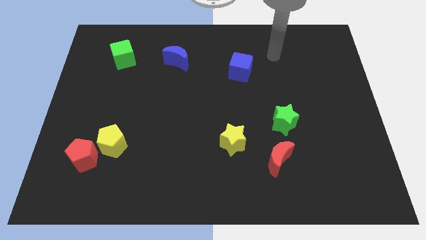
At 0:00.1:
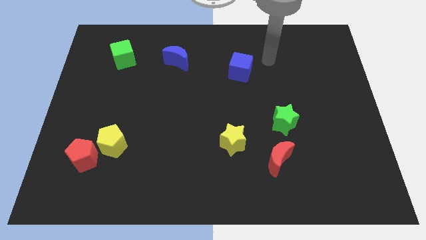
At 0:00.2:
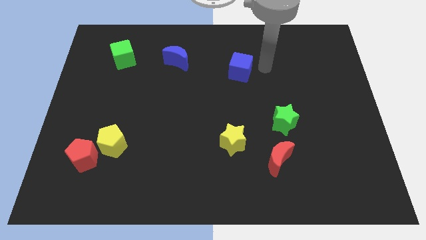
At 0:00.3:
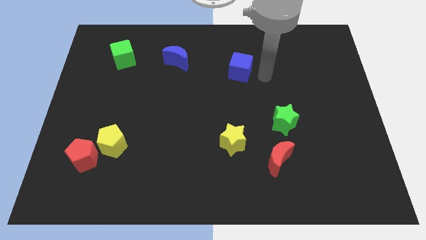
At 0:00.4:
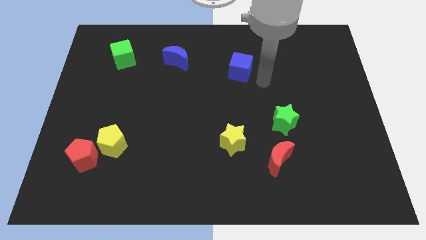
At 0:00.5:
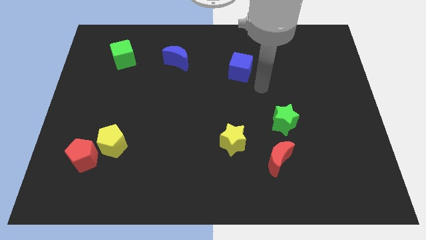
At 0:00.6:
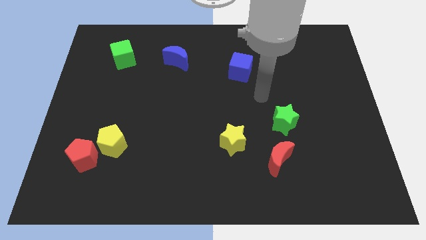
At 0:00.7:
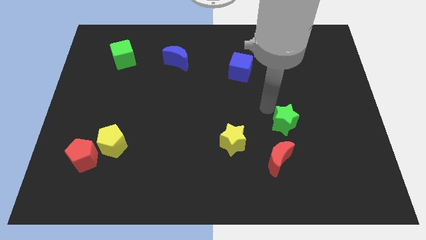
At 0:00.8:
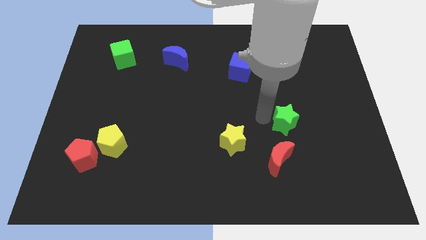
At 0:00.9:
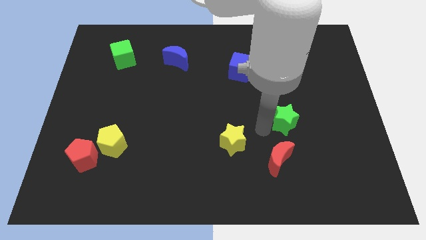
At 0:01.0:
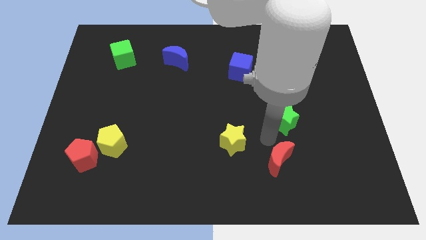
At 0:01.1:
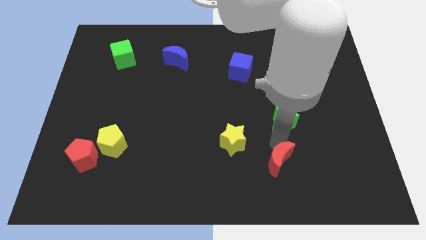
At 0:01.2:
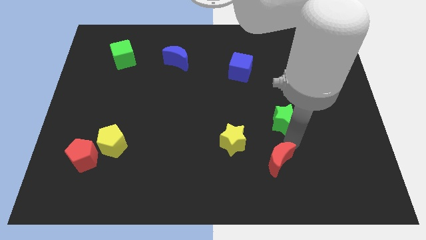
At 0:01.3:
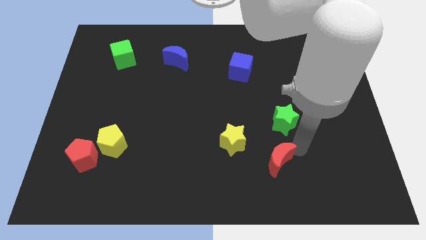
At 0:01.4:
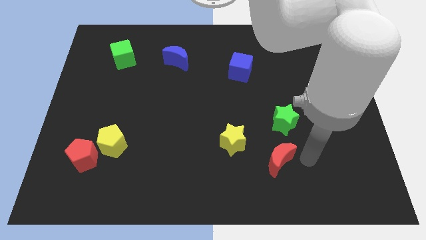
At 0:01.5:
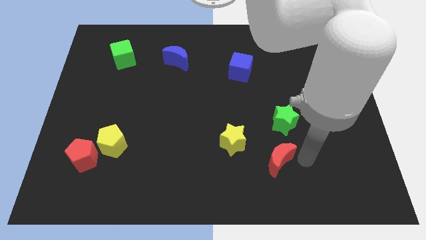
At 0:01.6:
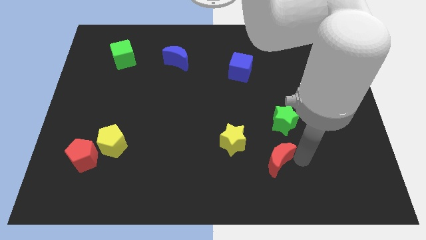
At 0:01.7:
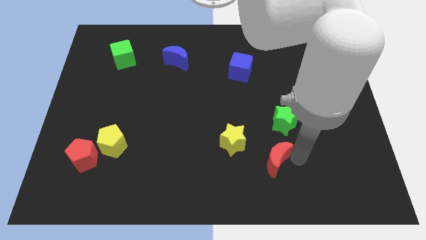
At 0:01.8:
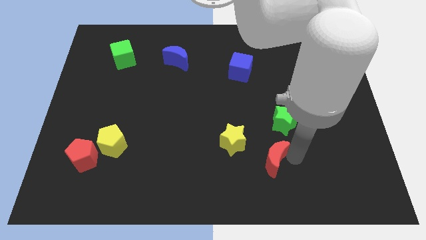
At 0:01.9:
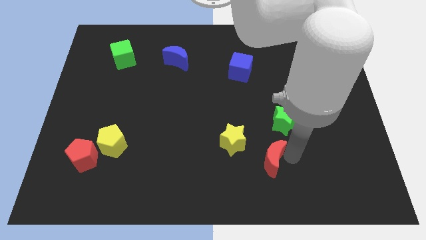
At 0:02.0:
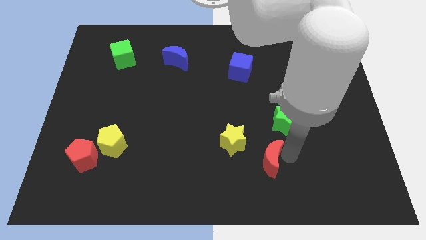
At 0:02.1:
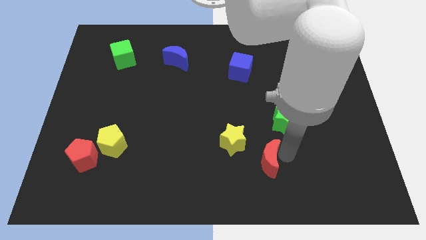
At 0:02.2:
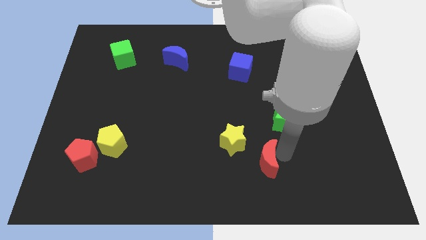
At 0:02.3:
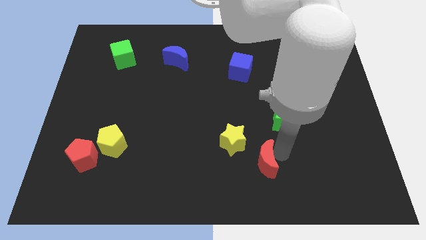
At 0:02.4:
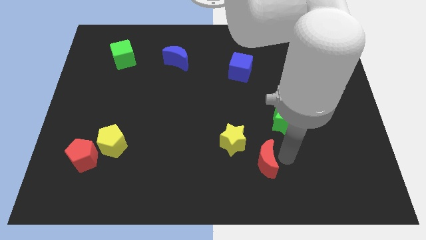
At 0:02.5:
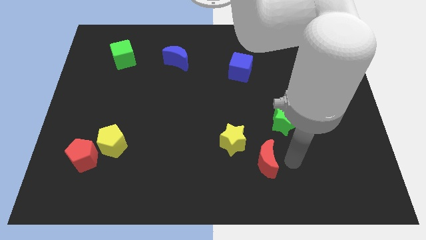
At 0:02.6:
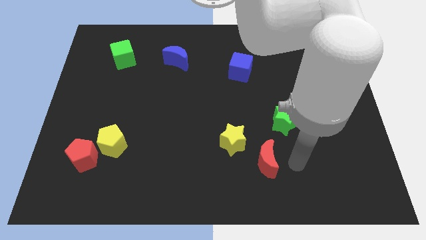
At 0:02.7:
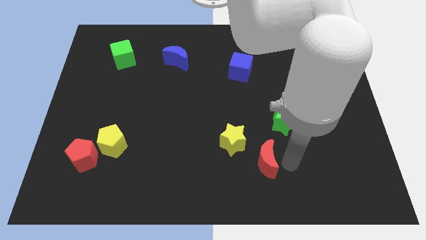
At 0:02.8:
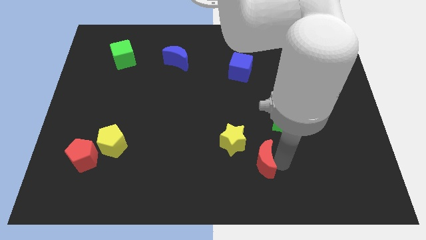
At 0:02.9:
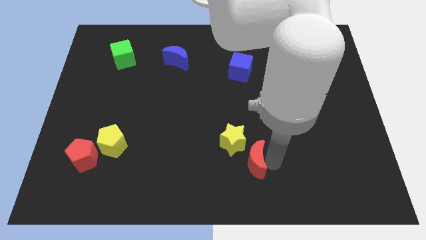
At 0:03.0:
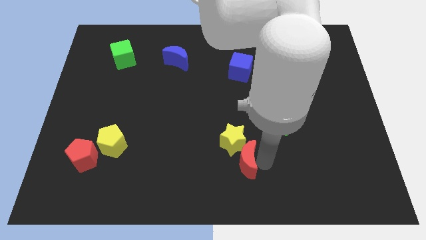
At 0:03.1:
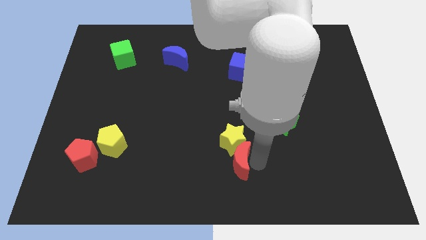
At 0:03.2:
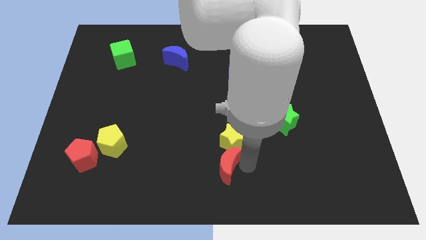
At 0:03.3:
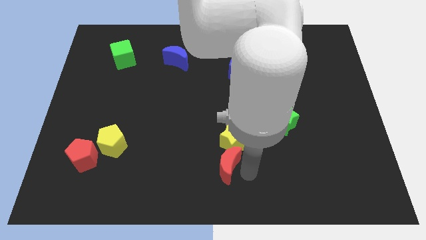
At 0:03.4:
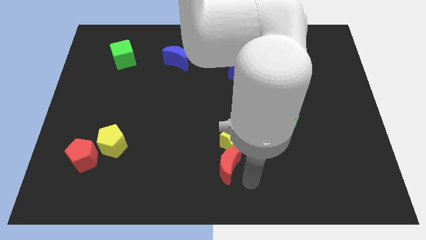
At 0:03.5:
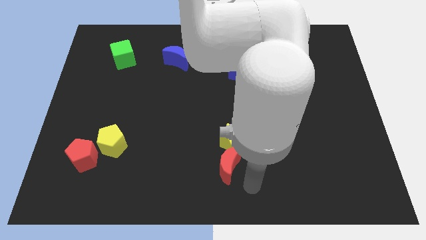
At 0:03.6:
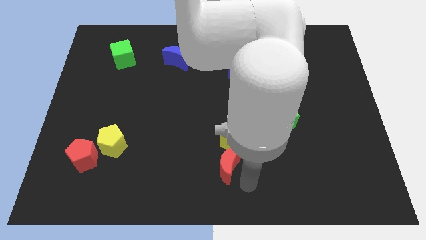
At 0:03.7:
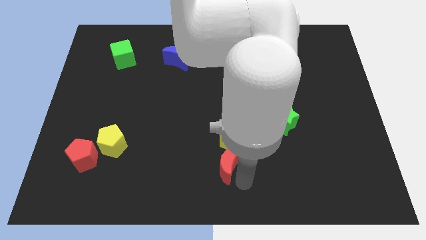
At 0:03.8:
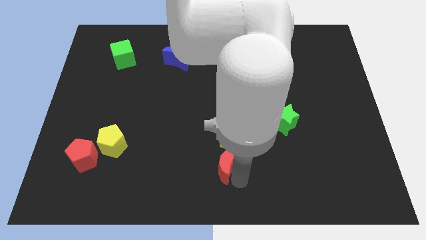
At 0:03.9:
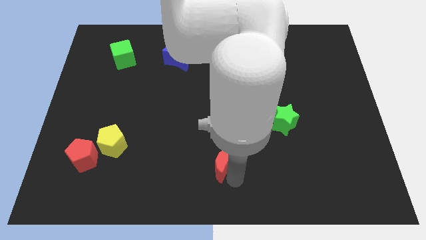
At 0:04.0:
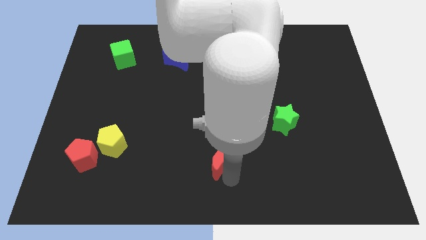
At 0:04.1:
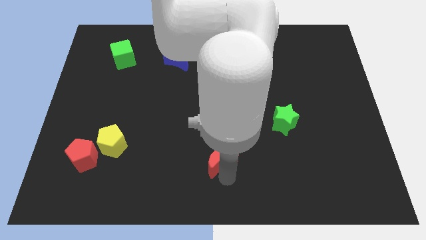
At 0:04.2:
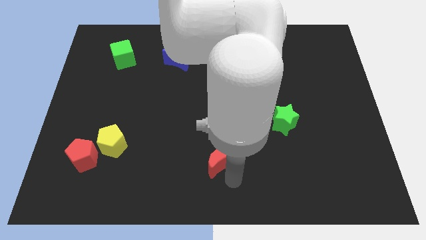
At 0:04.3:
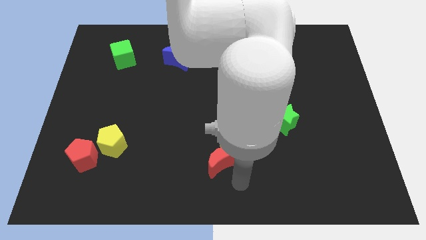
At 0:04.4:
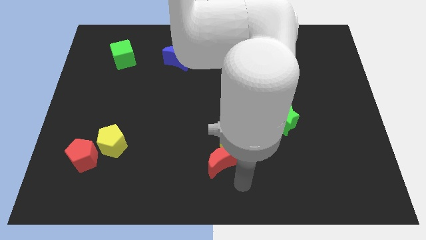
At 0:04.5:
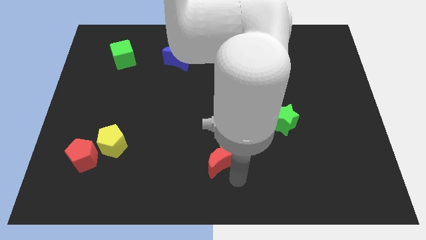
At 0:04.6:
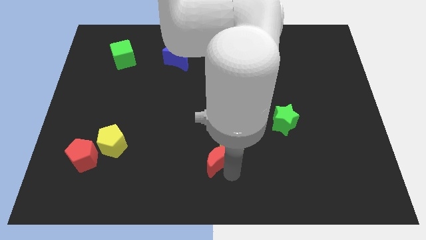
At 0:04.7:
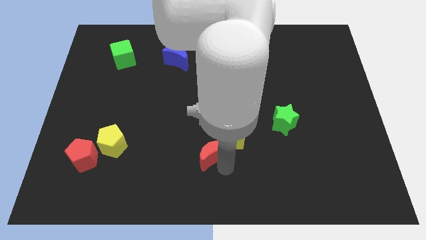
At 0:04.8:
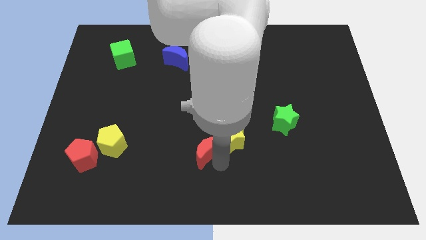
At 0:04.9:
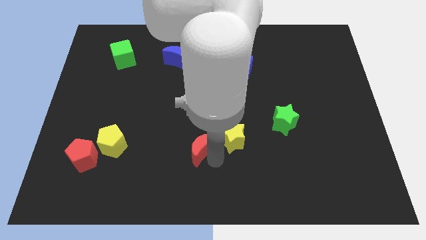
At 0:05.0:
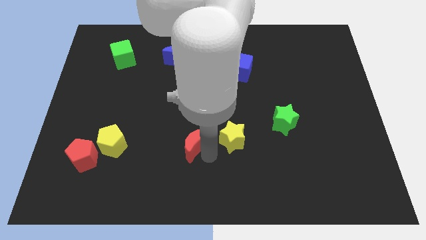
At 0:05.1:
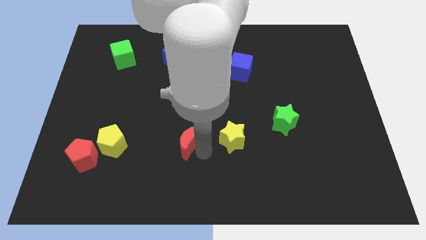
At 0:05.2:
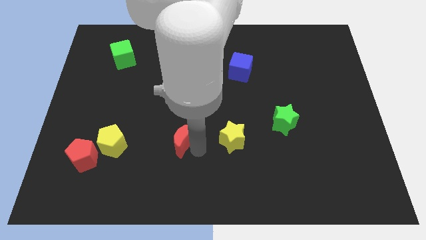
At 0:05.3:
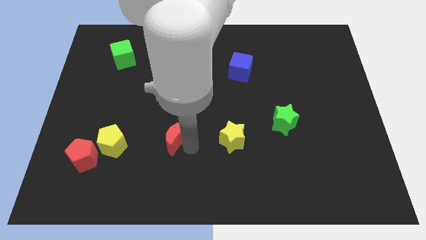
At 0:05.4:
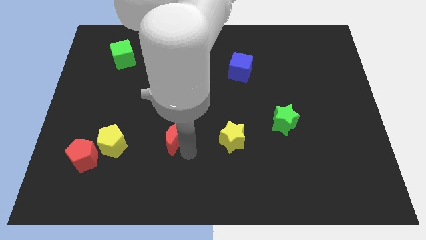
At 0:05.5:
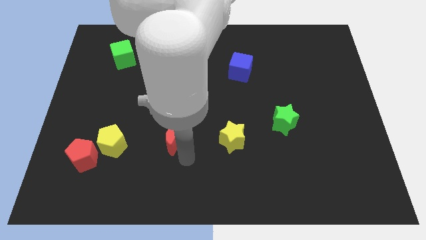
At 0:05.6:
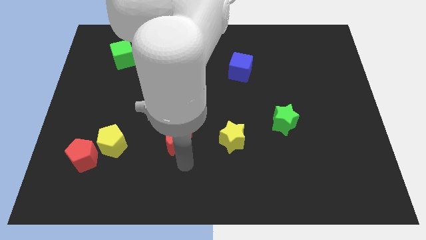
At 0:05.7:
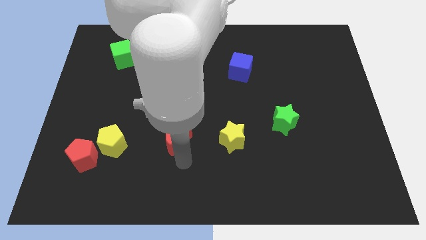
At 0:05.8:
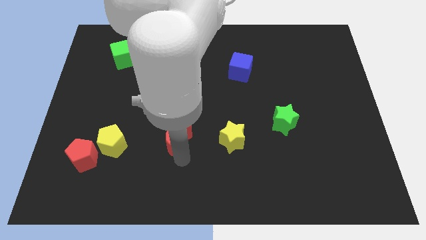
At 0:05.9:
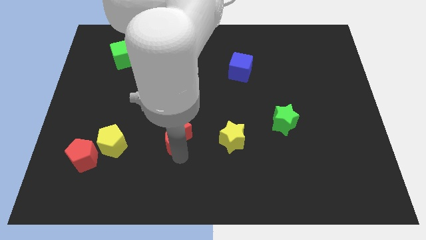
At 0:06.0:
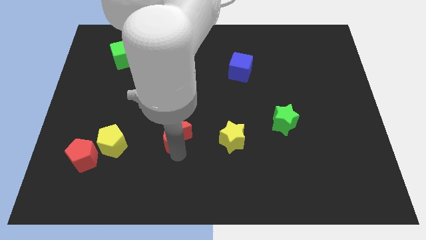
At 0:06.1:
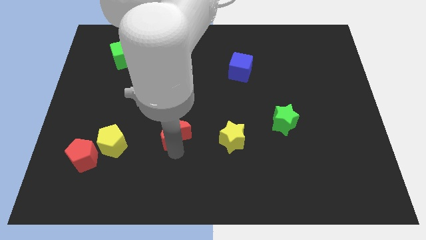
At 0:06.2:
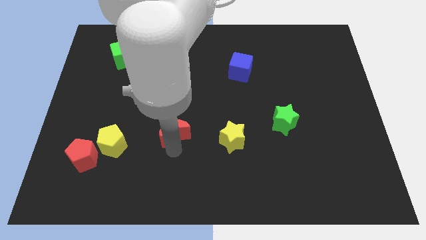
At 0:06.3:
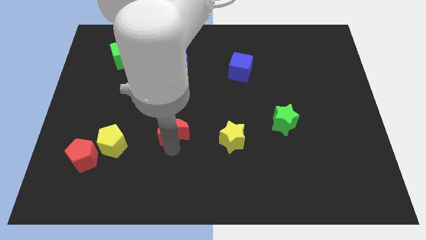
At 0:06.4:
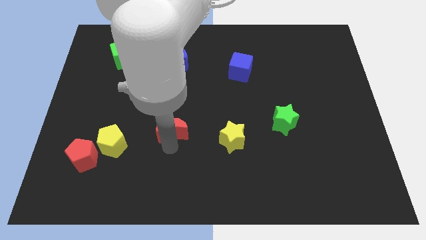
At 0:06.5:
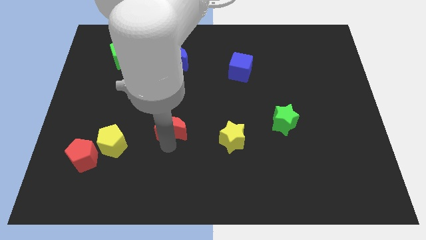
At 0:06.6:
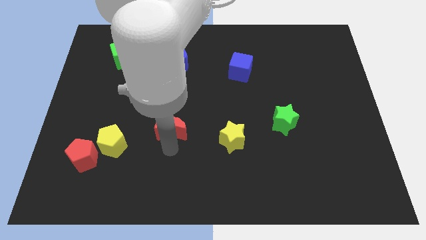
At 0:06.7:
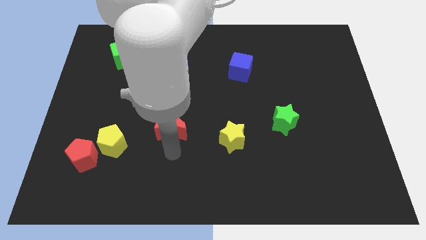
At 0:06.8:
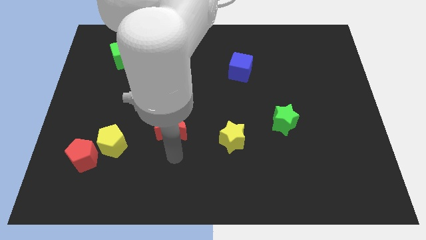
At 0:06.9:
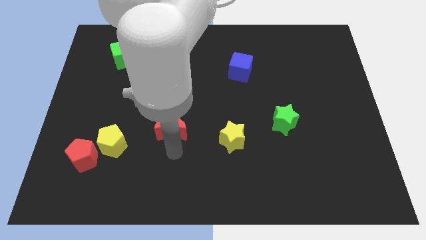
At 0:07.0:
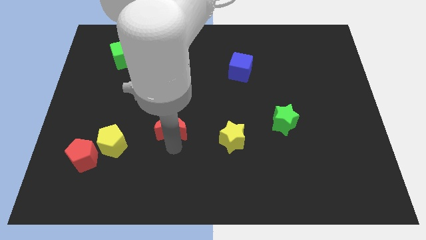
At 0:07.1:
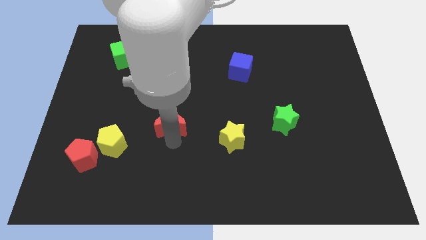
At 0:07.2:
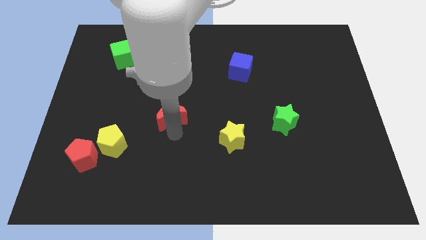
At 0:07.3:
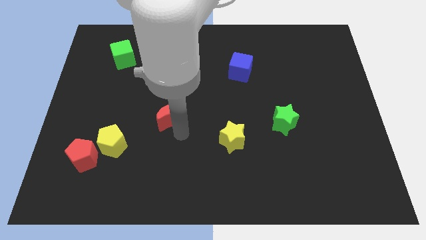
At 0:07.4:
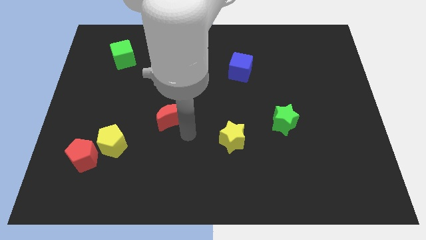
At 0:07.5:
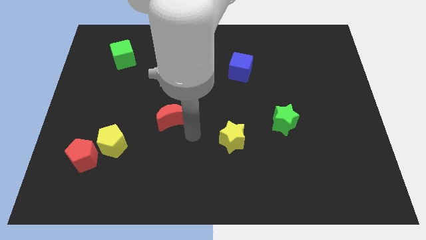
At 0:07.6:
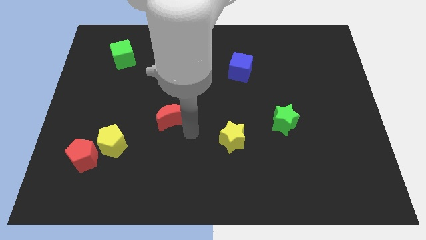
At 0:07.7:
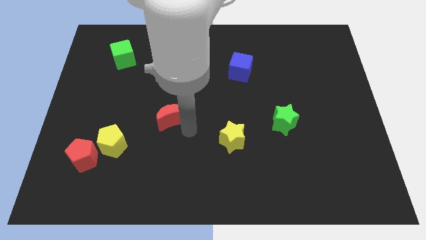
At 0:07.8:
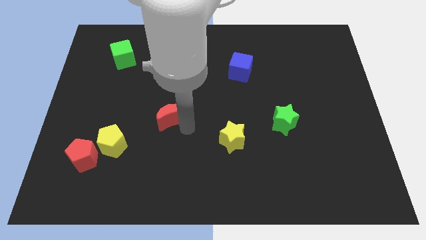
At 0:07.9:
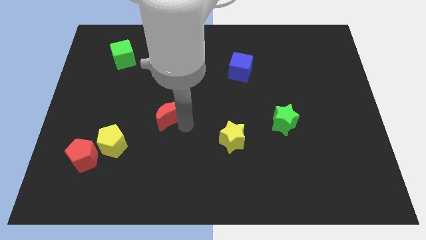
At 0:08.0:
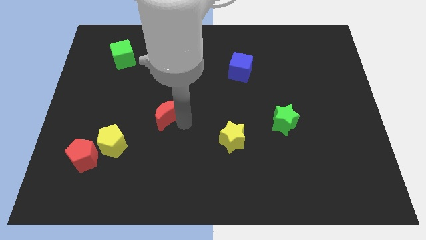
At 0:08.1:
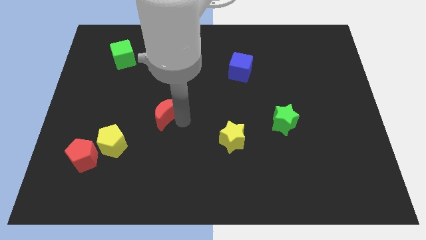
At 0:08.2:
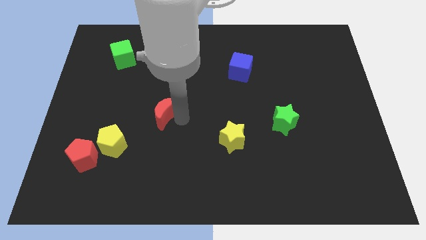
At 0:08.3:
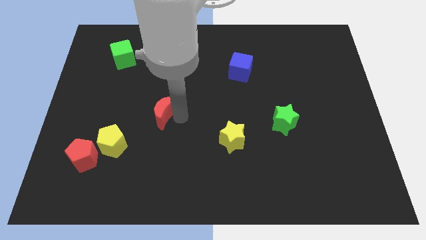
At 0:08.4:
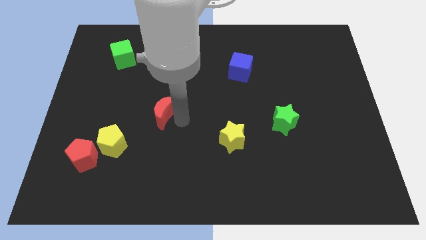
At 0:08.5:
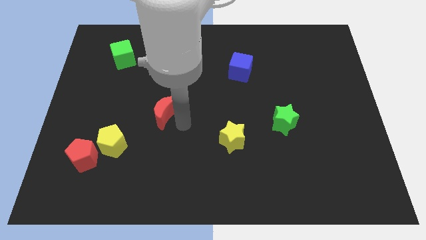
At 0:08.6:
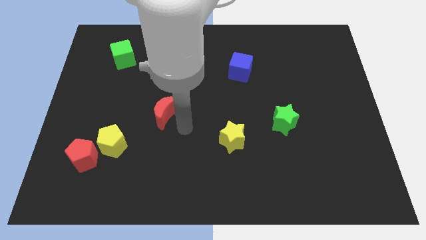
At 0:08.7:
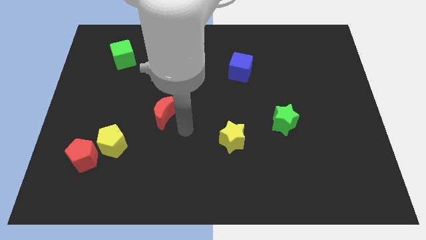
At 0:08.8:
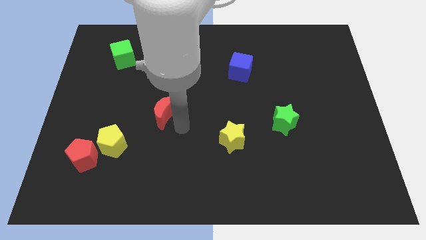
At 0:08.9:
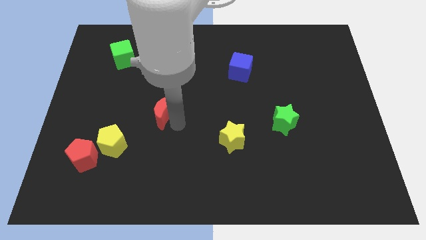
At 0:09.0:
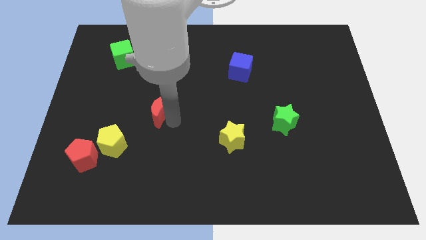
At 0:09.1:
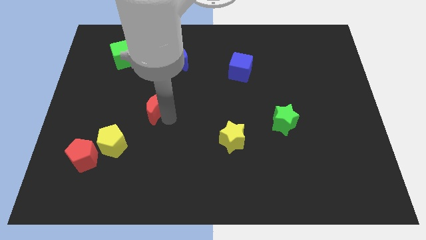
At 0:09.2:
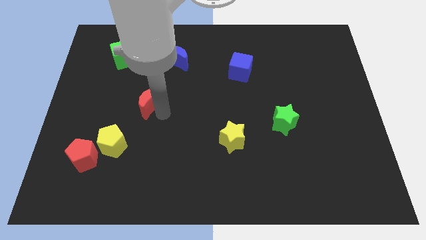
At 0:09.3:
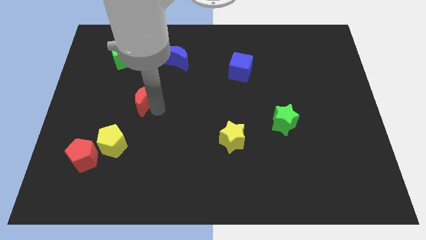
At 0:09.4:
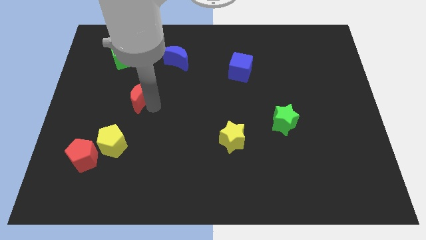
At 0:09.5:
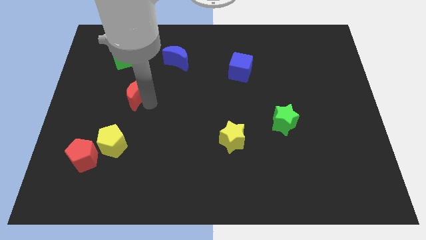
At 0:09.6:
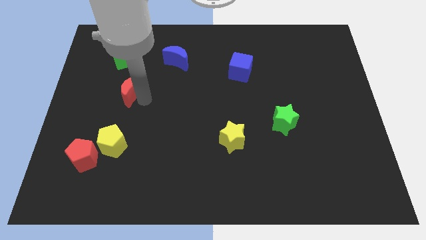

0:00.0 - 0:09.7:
slide the red moon to the bottom side of the green cube
